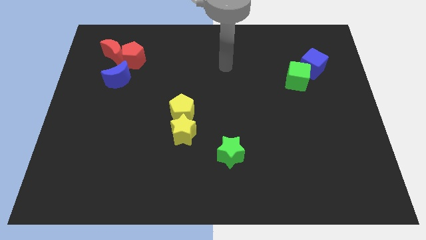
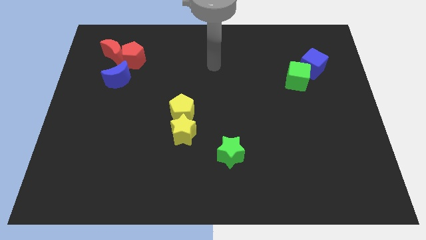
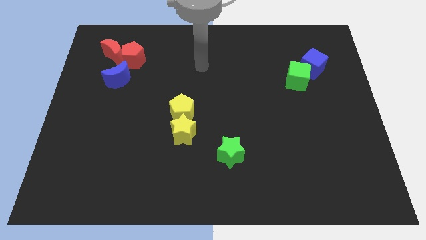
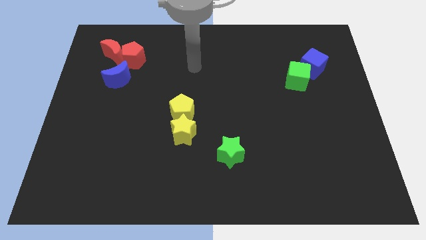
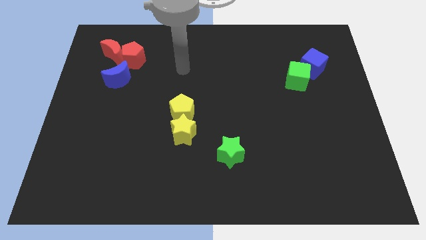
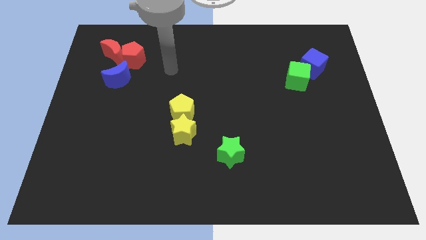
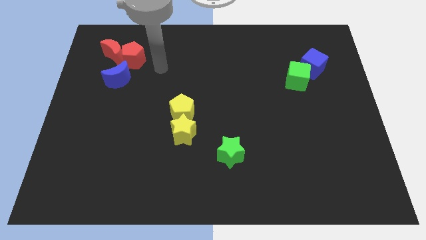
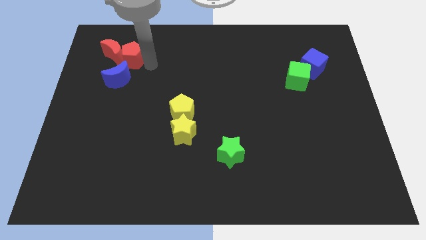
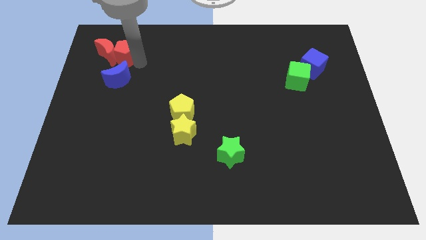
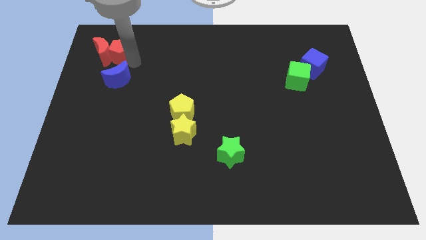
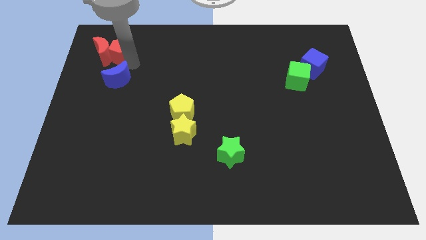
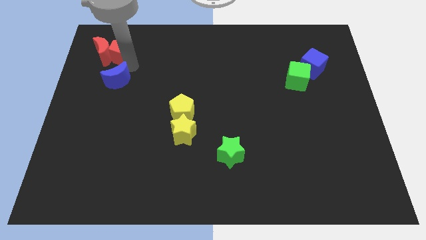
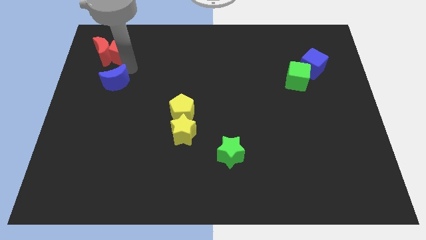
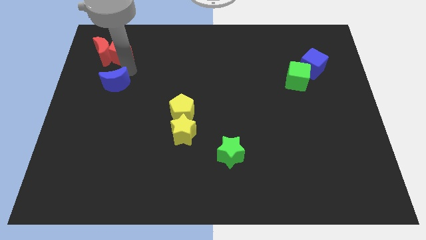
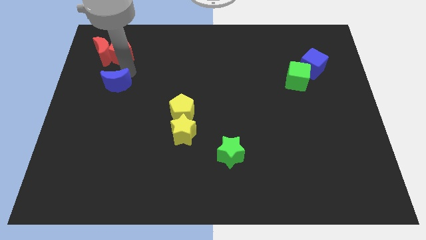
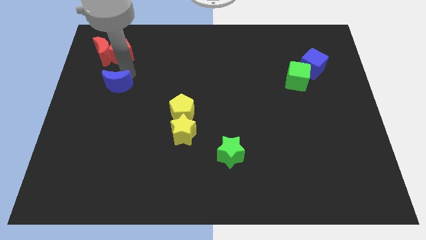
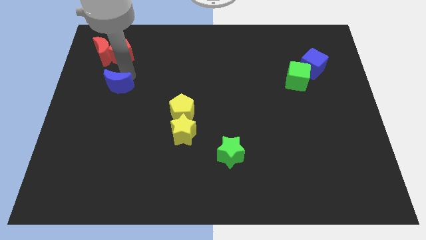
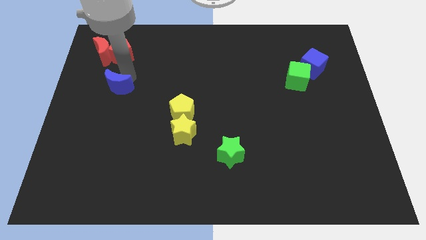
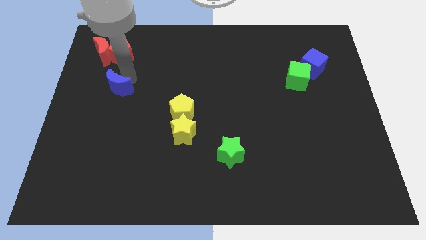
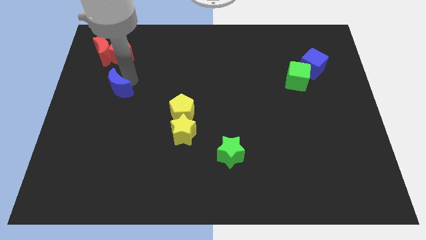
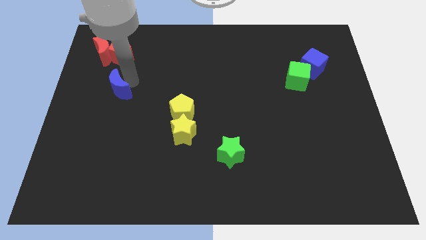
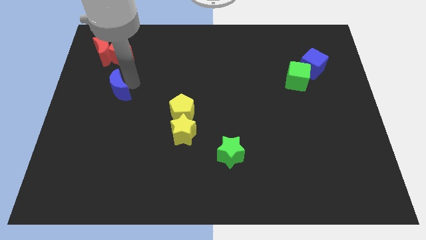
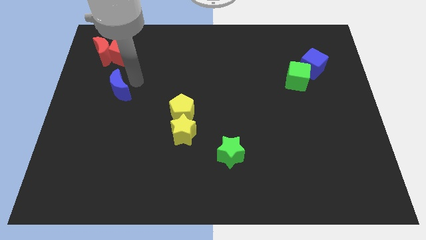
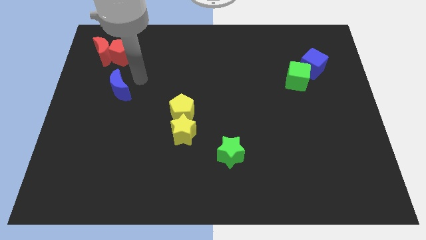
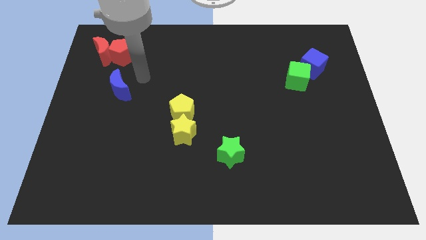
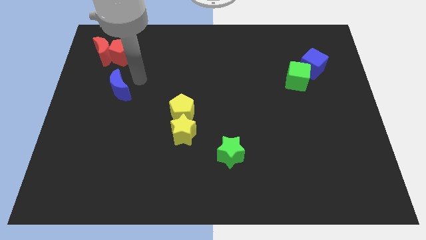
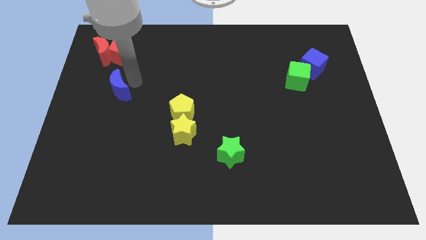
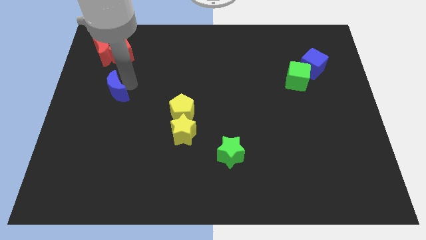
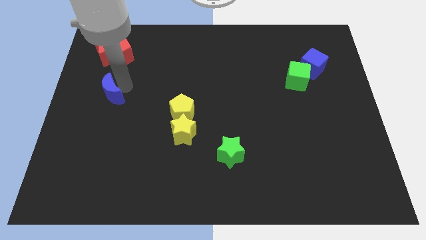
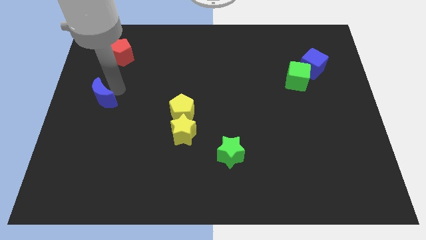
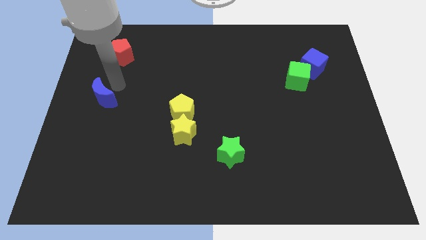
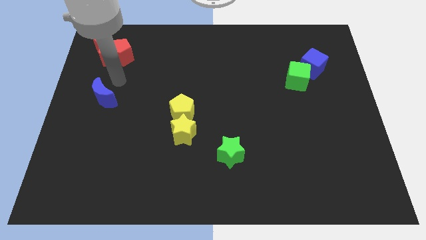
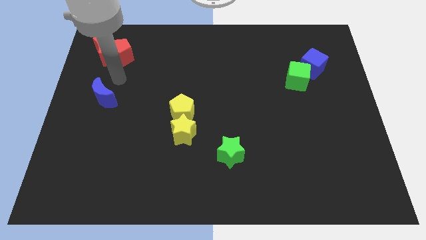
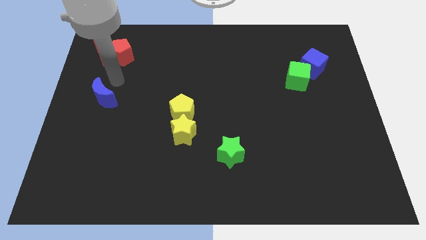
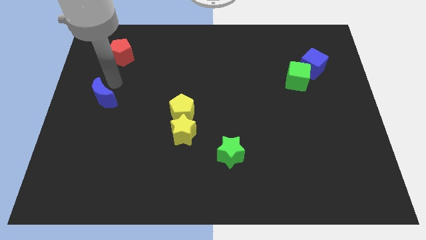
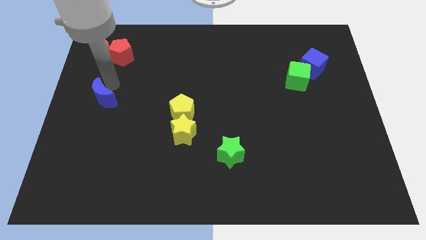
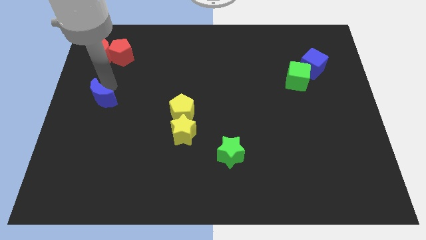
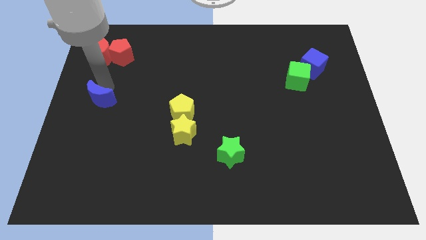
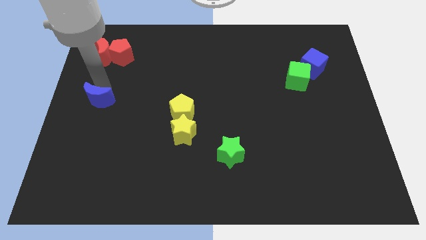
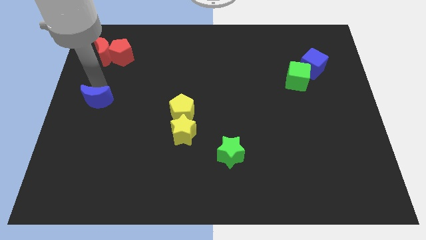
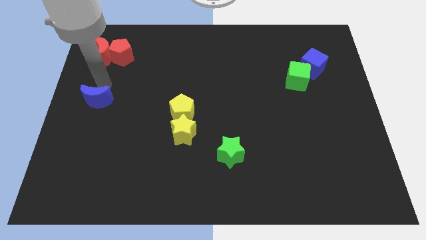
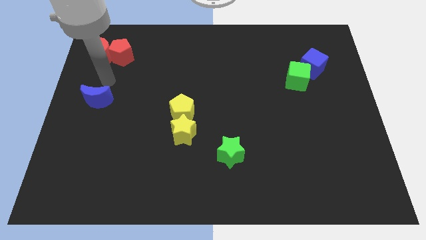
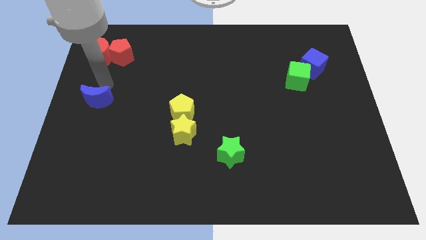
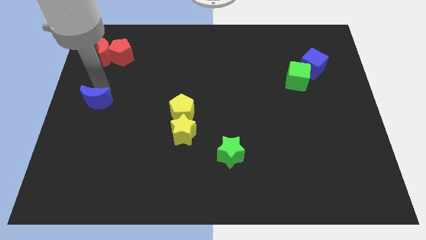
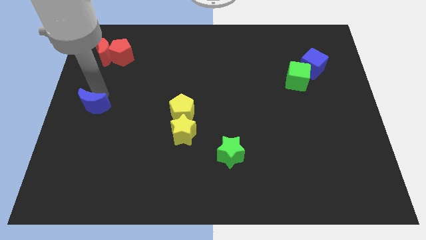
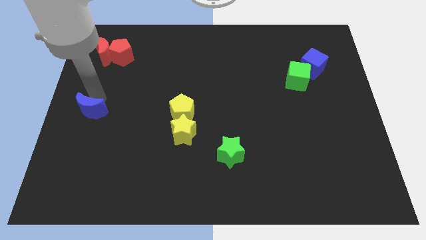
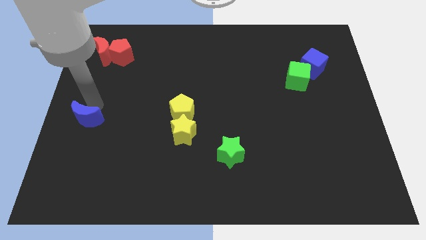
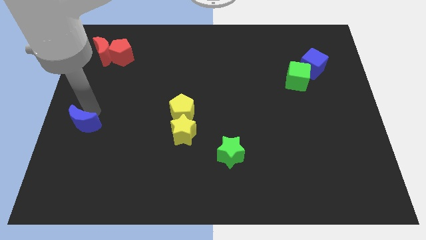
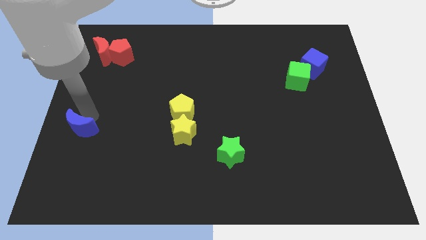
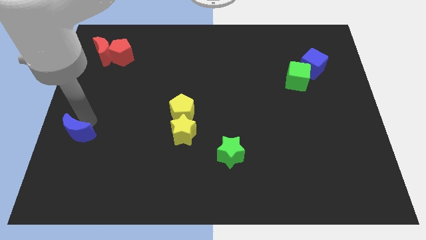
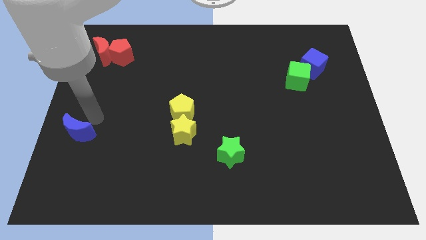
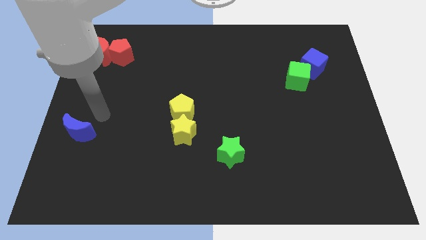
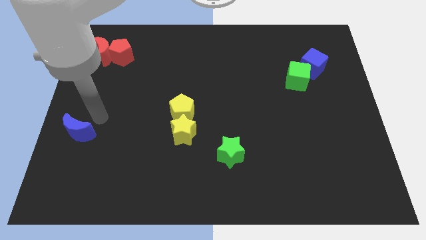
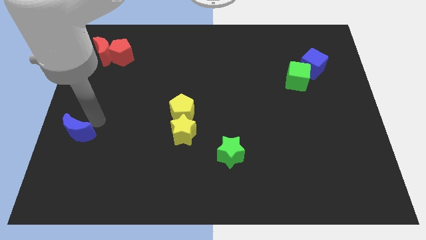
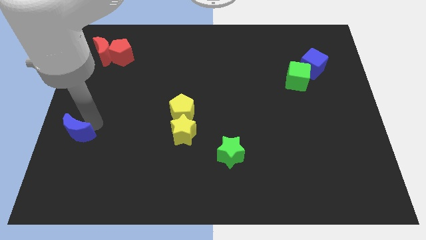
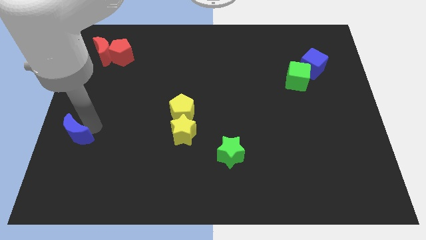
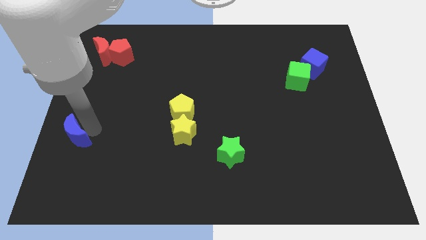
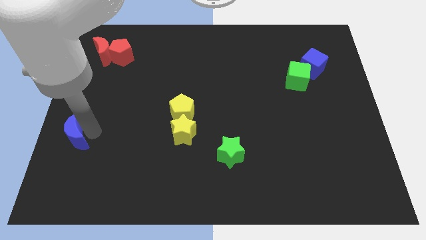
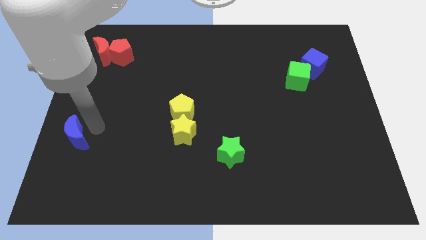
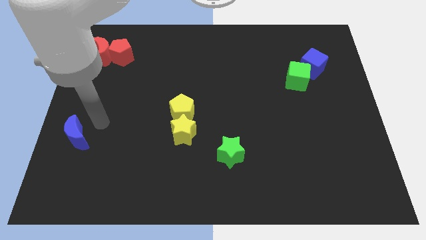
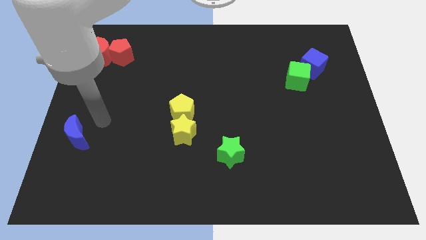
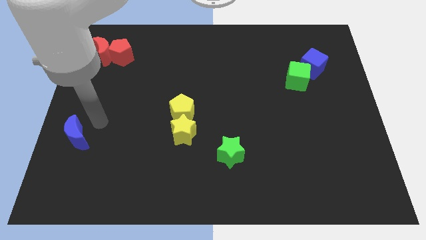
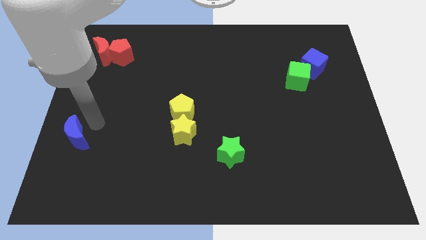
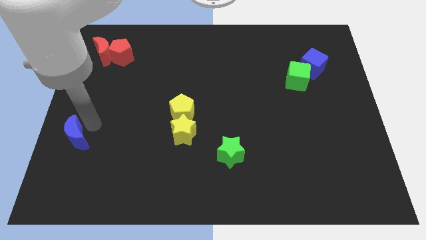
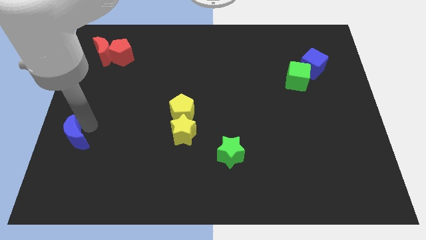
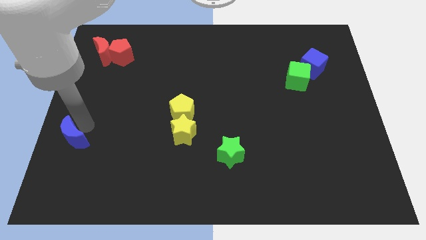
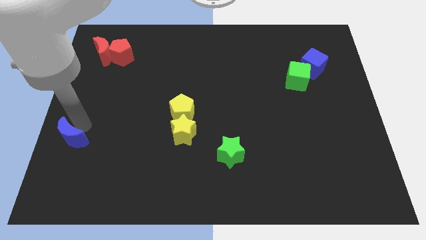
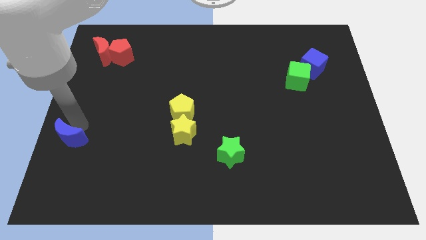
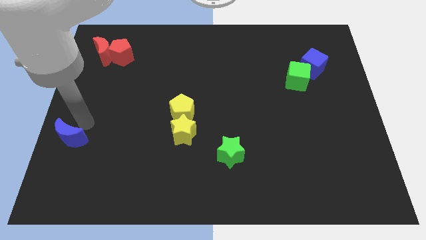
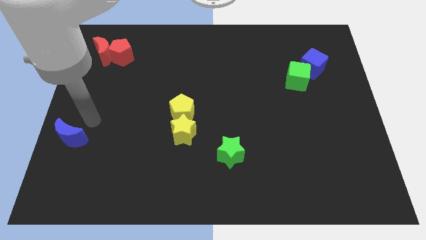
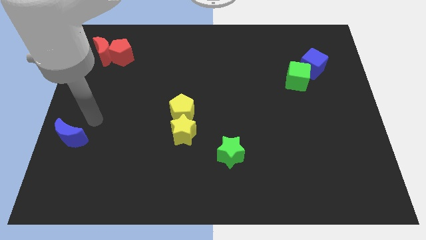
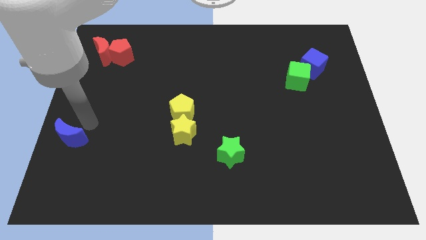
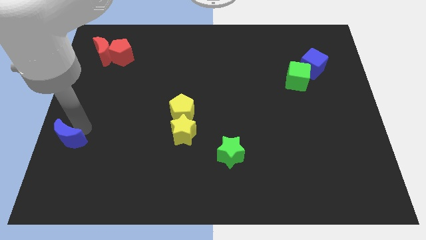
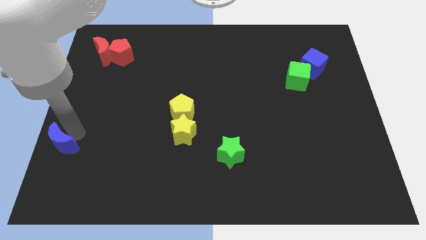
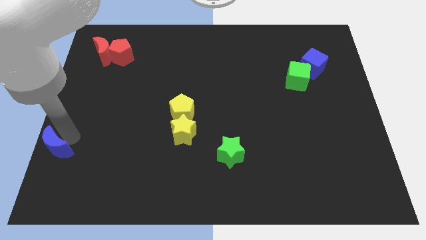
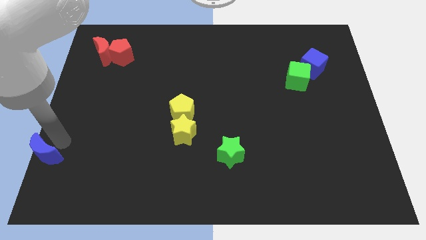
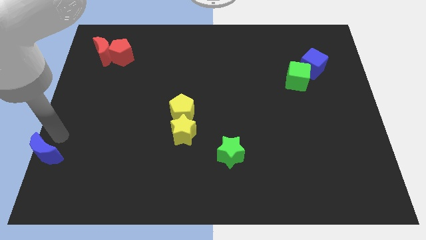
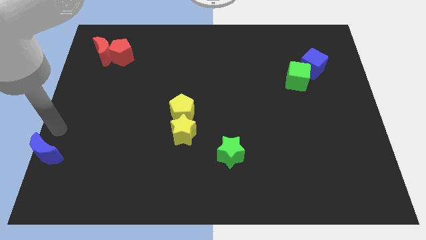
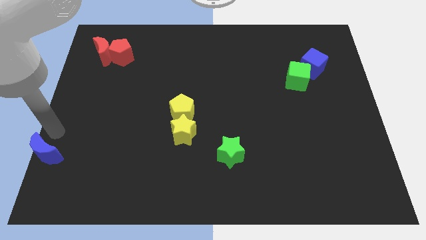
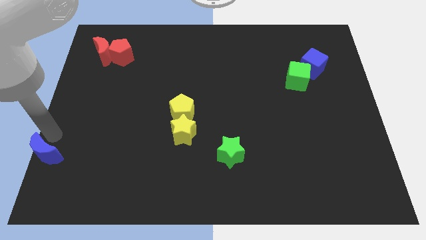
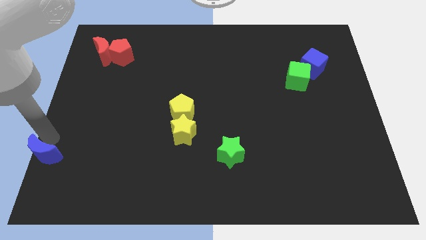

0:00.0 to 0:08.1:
move the blue moon to the bottom left corner
